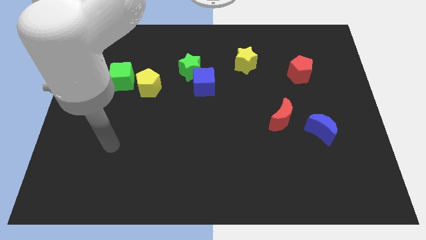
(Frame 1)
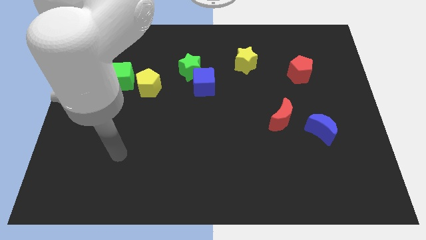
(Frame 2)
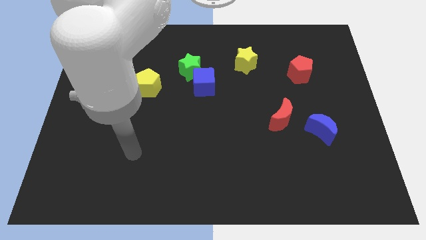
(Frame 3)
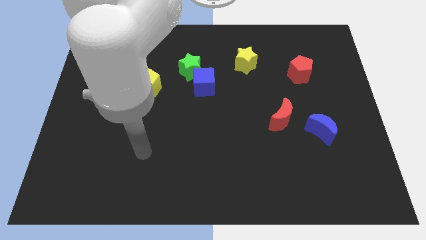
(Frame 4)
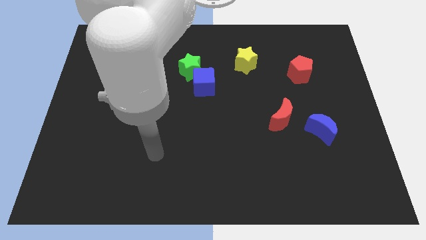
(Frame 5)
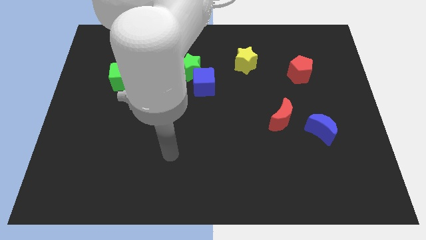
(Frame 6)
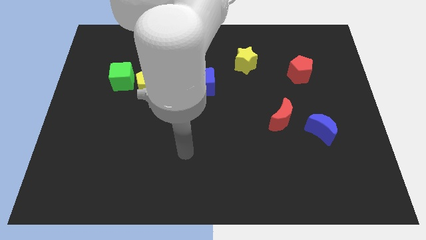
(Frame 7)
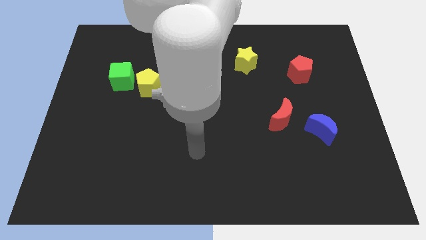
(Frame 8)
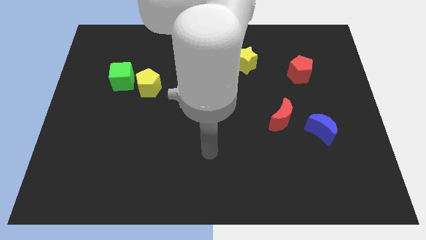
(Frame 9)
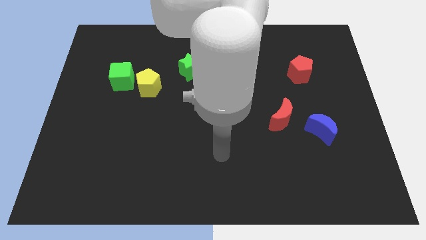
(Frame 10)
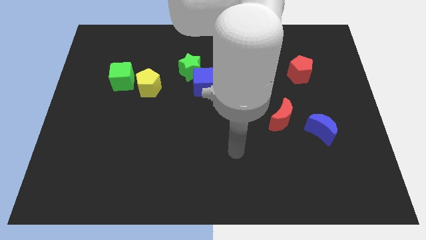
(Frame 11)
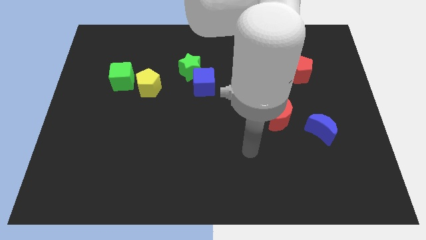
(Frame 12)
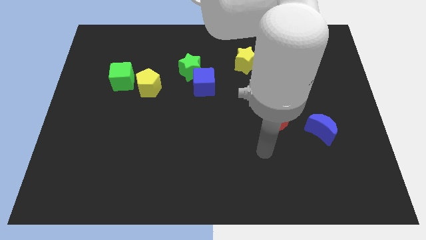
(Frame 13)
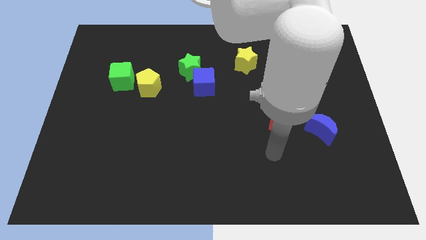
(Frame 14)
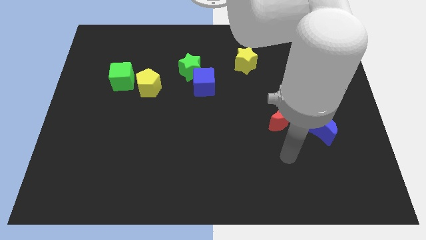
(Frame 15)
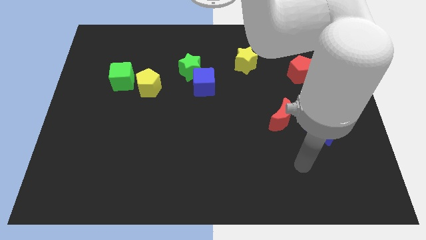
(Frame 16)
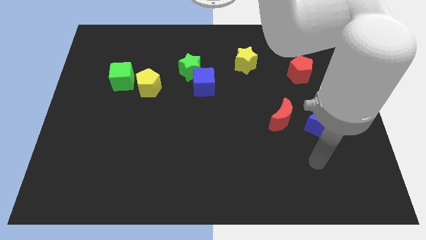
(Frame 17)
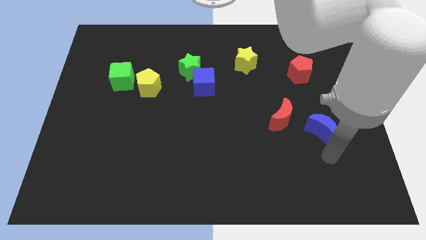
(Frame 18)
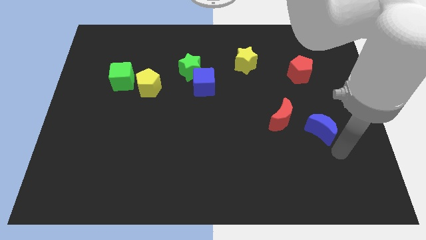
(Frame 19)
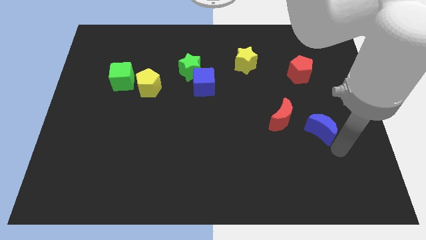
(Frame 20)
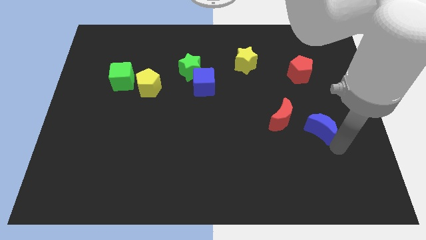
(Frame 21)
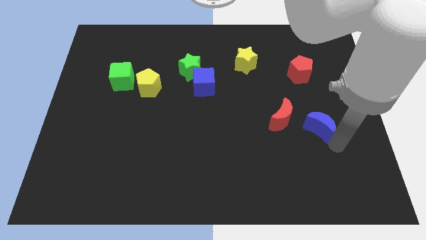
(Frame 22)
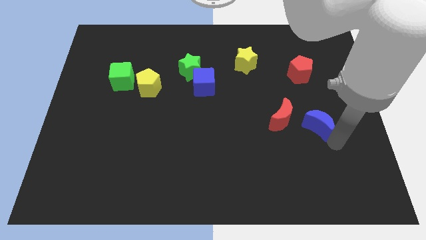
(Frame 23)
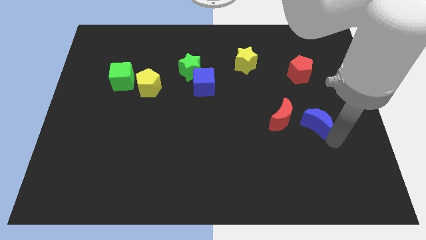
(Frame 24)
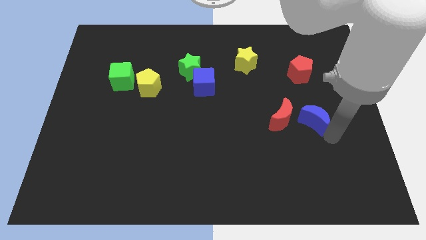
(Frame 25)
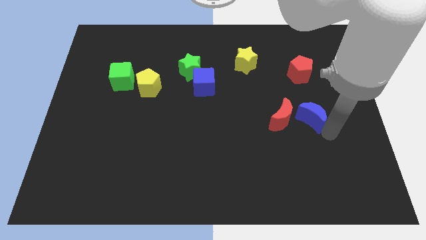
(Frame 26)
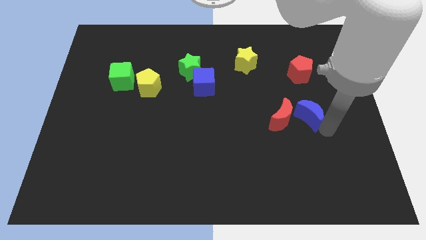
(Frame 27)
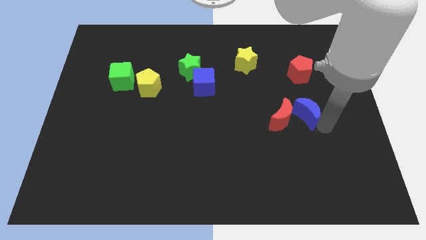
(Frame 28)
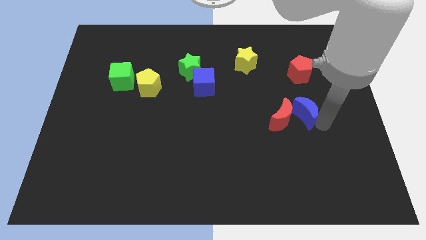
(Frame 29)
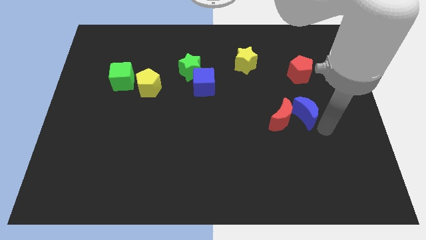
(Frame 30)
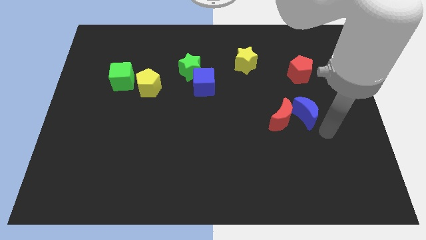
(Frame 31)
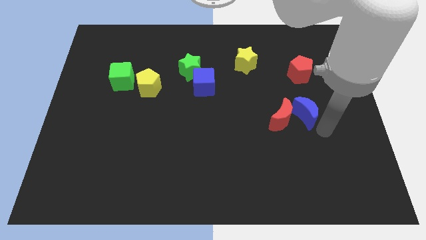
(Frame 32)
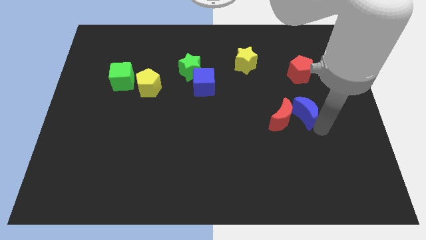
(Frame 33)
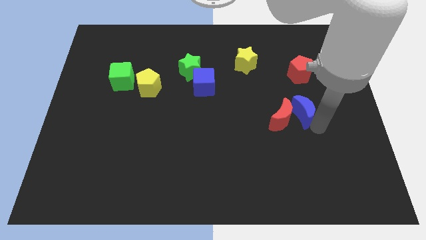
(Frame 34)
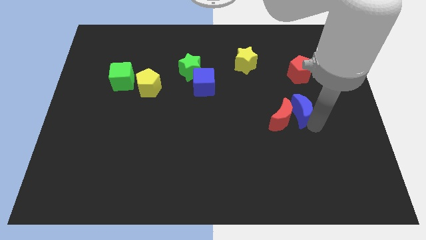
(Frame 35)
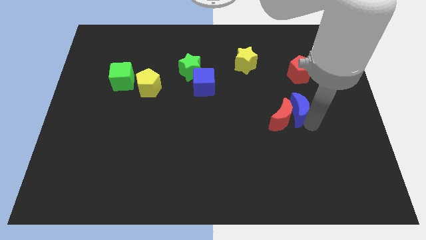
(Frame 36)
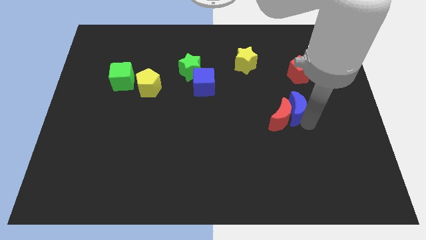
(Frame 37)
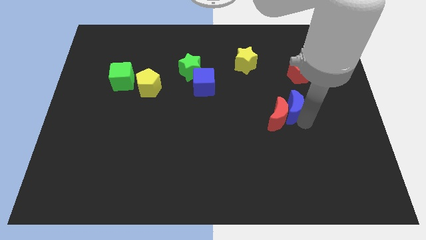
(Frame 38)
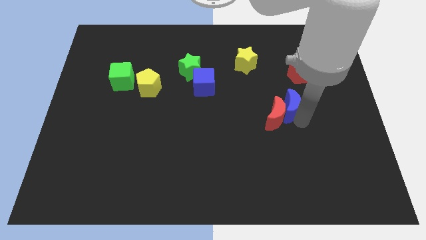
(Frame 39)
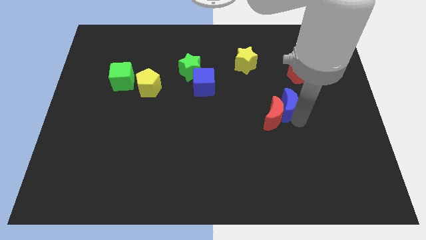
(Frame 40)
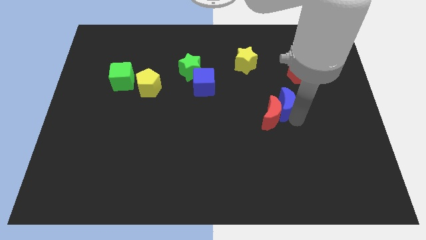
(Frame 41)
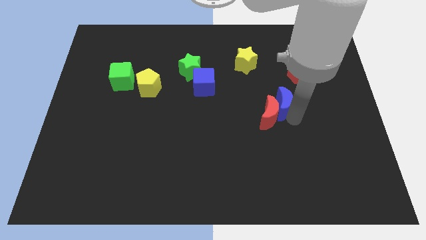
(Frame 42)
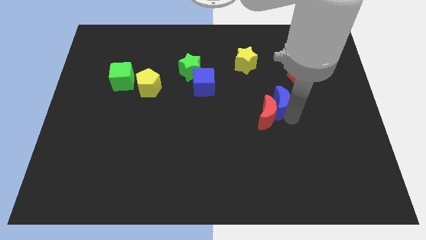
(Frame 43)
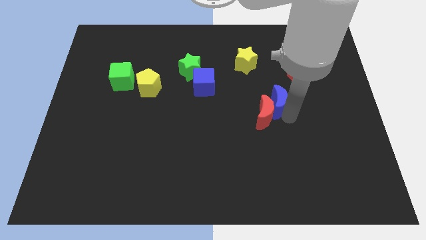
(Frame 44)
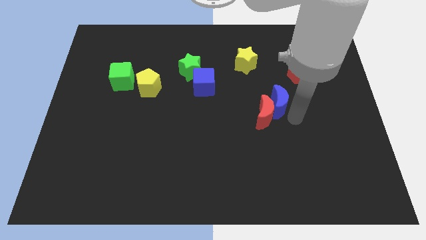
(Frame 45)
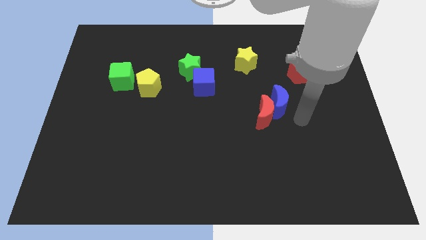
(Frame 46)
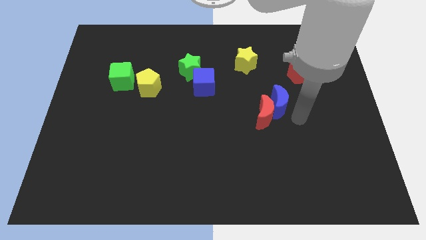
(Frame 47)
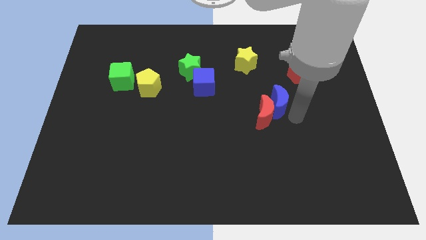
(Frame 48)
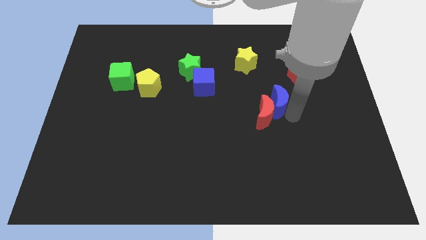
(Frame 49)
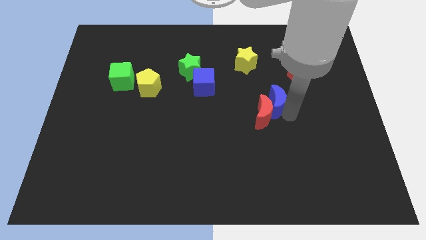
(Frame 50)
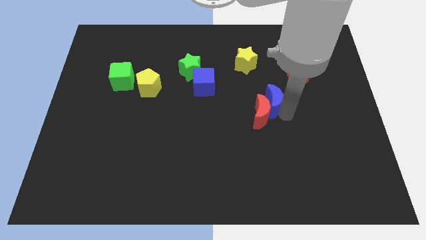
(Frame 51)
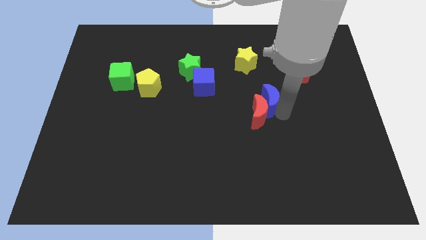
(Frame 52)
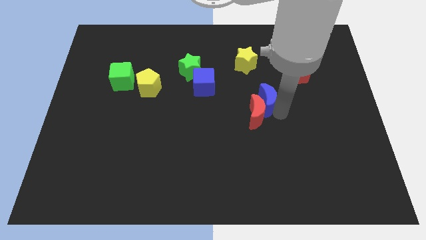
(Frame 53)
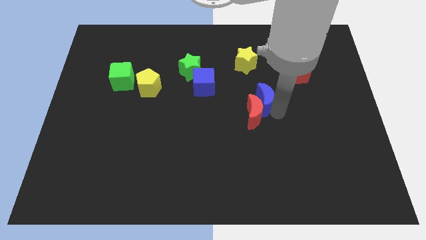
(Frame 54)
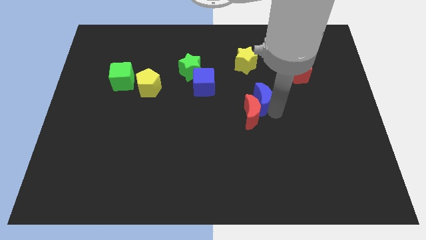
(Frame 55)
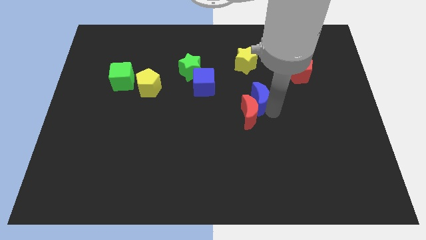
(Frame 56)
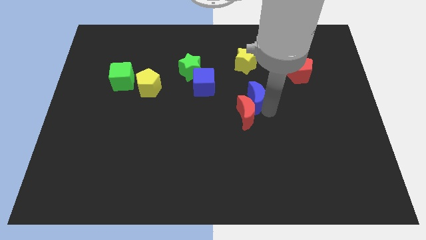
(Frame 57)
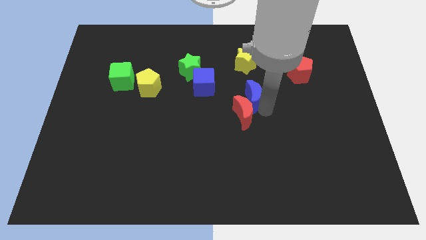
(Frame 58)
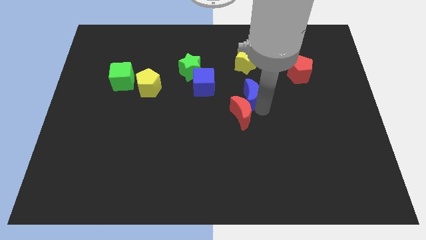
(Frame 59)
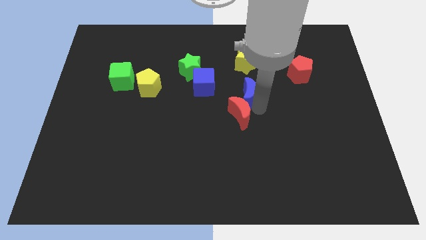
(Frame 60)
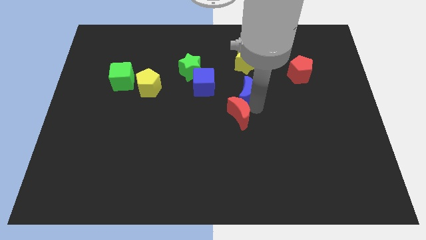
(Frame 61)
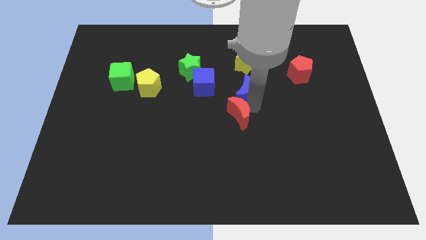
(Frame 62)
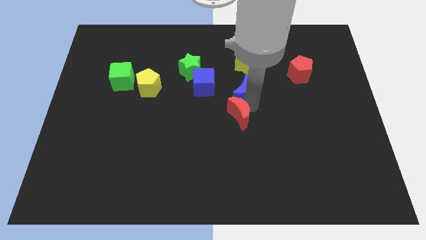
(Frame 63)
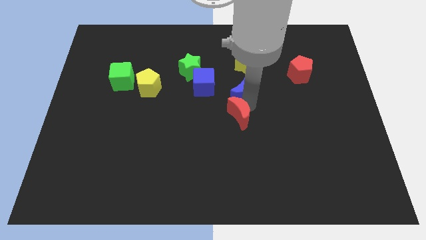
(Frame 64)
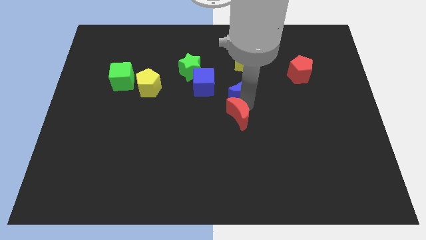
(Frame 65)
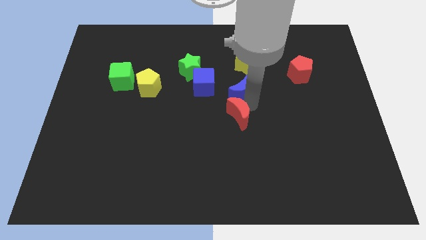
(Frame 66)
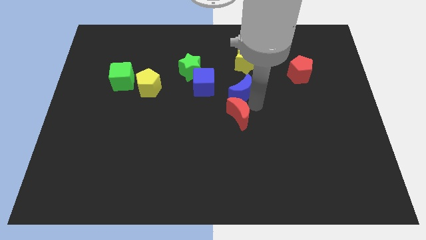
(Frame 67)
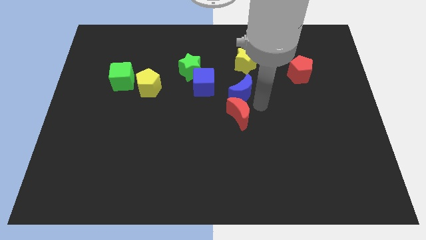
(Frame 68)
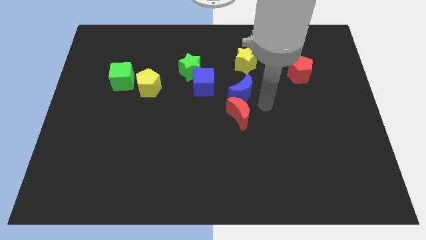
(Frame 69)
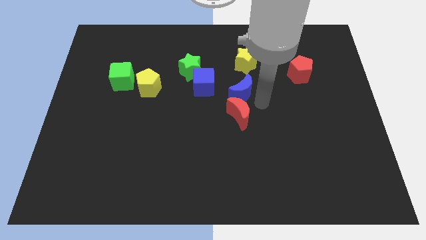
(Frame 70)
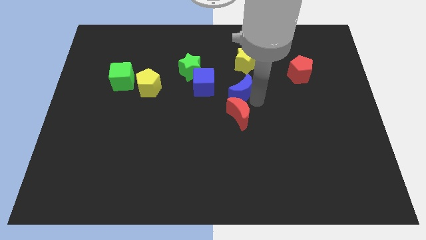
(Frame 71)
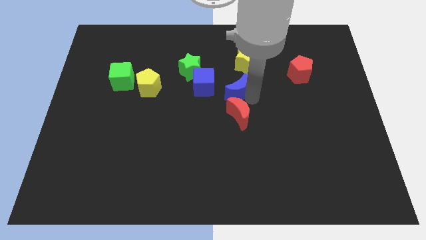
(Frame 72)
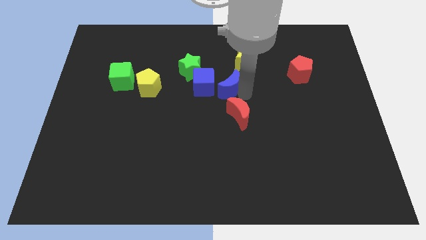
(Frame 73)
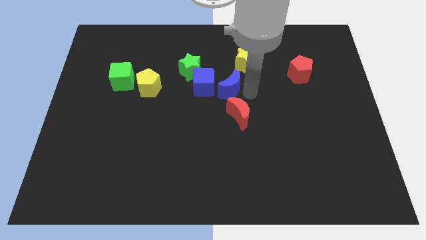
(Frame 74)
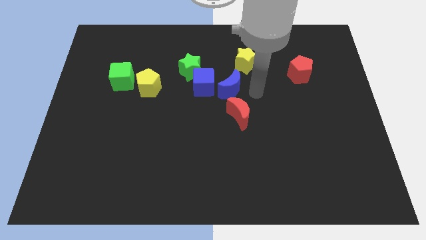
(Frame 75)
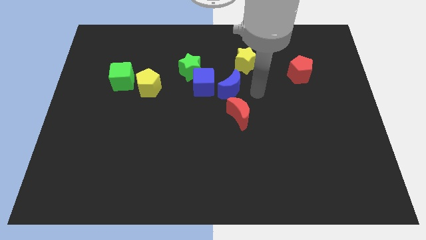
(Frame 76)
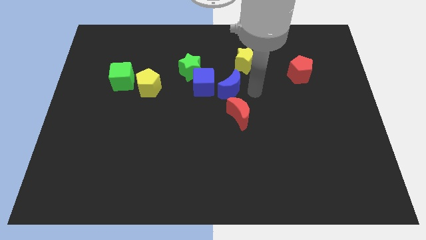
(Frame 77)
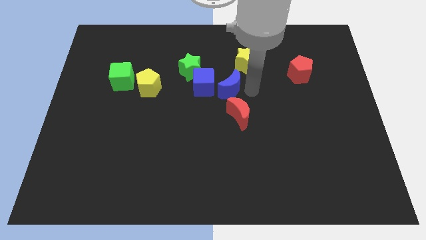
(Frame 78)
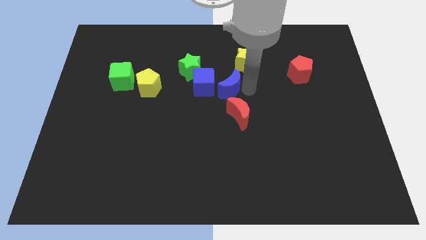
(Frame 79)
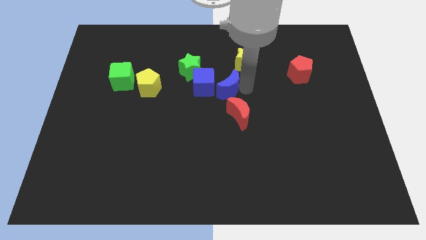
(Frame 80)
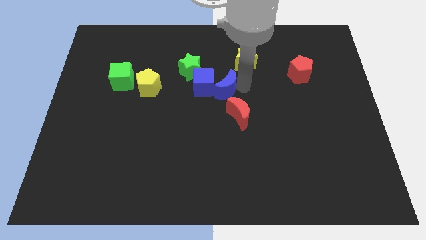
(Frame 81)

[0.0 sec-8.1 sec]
put the blue moon next to the blue cube
